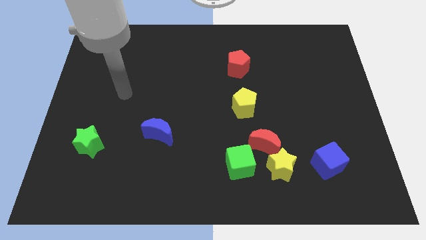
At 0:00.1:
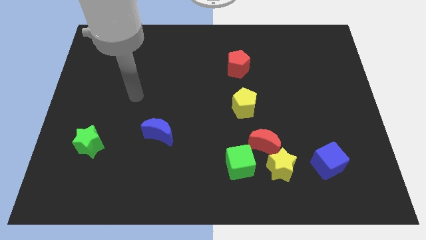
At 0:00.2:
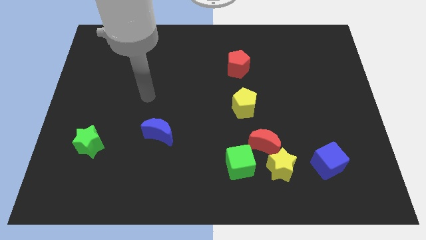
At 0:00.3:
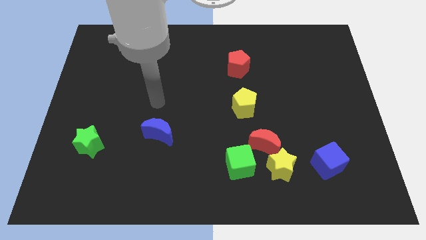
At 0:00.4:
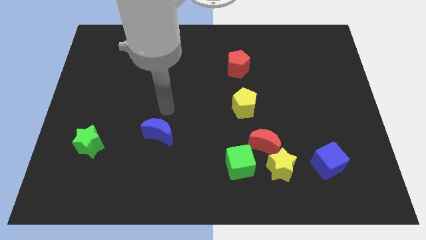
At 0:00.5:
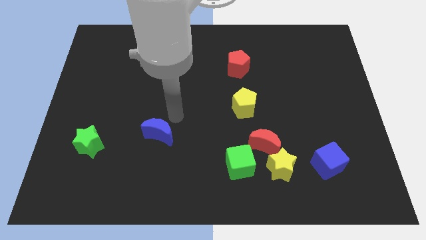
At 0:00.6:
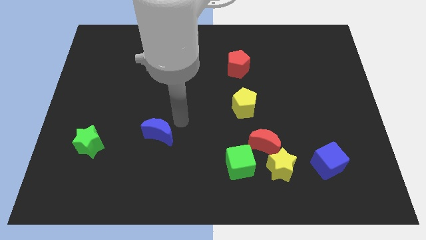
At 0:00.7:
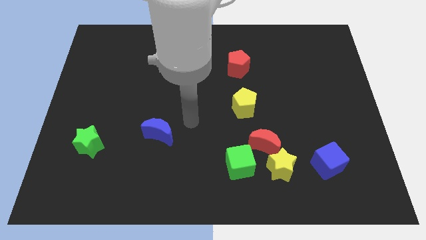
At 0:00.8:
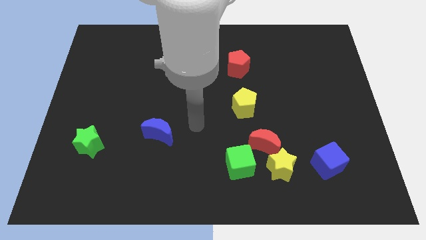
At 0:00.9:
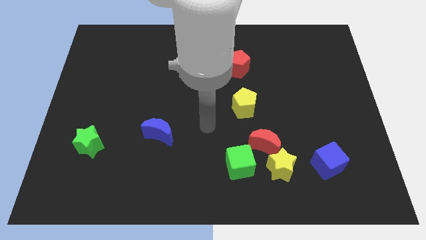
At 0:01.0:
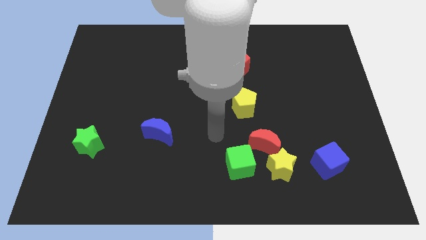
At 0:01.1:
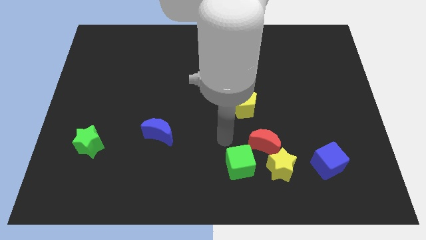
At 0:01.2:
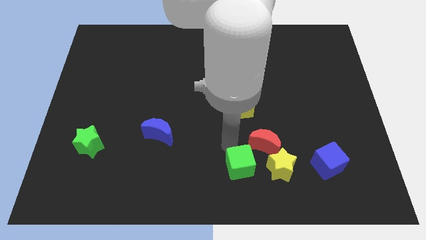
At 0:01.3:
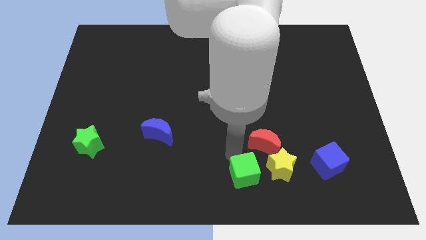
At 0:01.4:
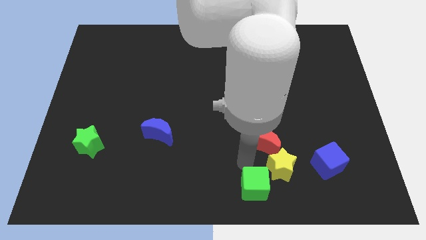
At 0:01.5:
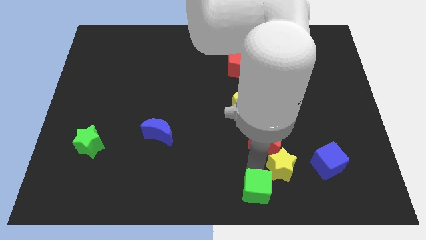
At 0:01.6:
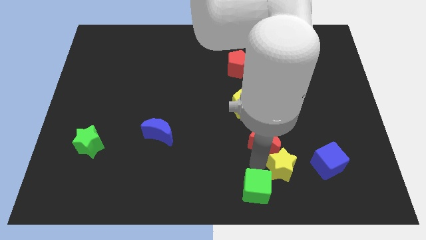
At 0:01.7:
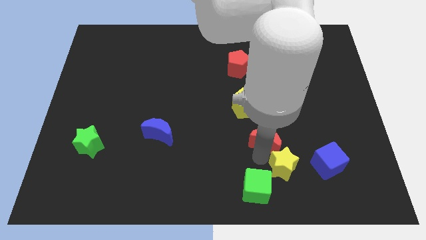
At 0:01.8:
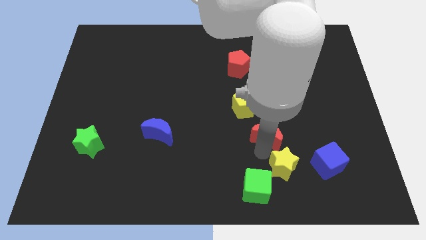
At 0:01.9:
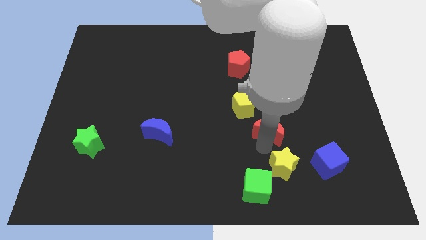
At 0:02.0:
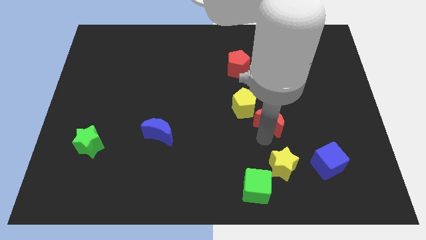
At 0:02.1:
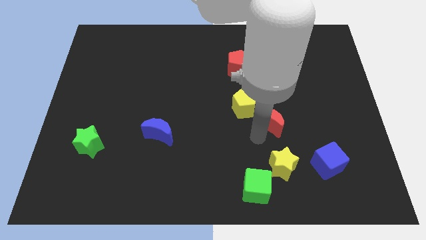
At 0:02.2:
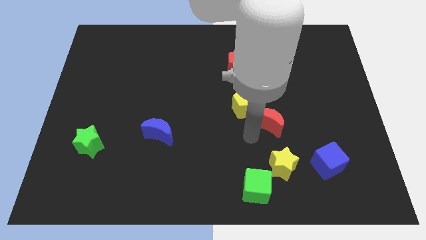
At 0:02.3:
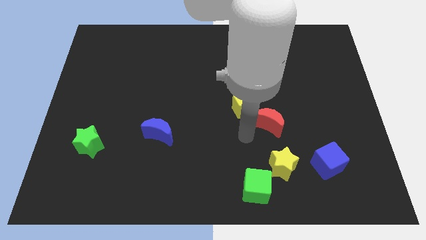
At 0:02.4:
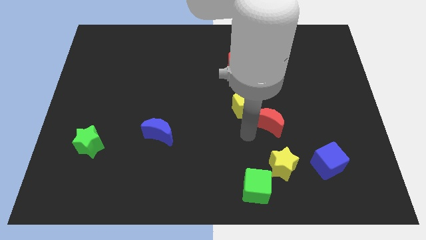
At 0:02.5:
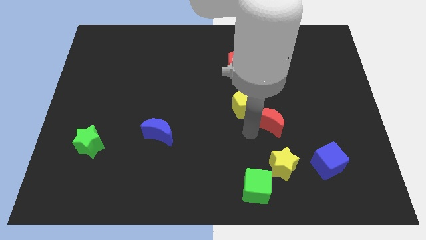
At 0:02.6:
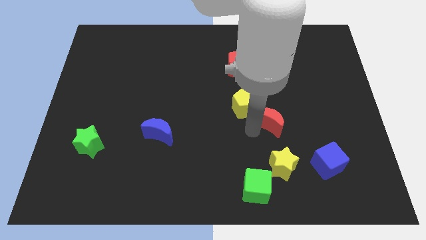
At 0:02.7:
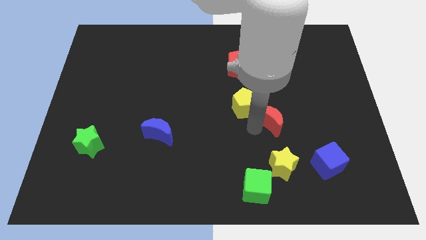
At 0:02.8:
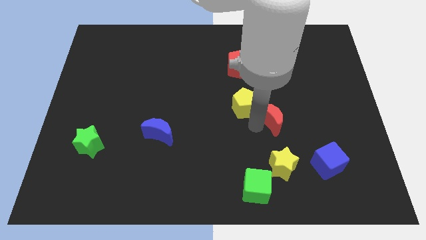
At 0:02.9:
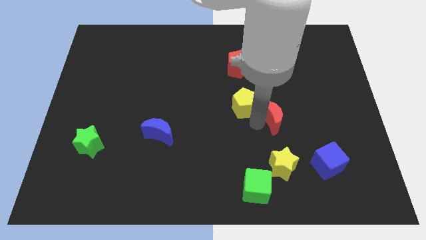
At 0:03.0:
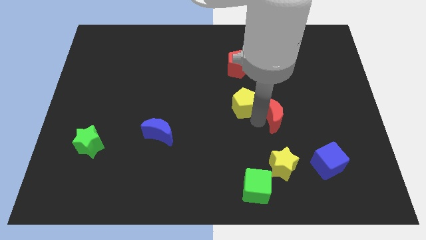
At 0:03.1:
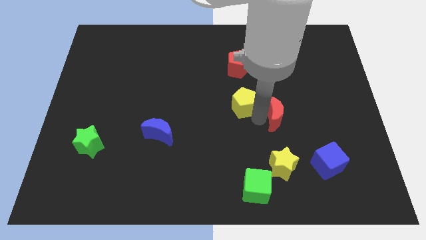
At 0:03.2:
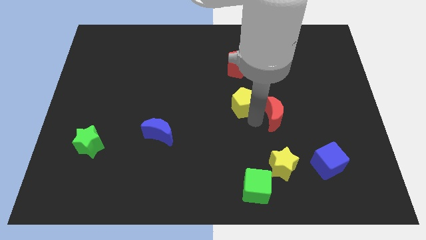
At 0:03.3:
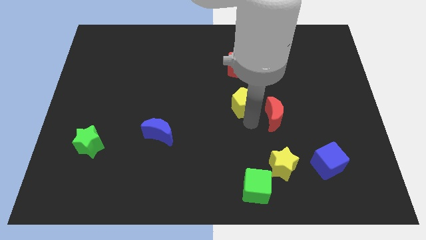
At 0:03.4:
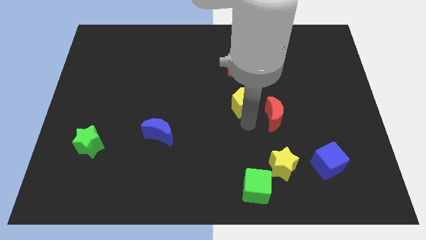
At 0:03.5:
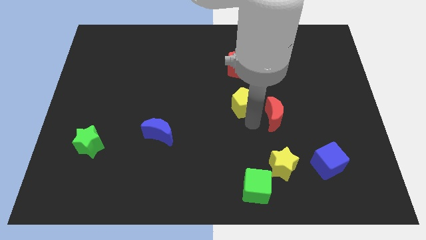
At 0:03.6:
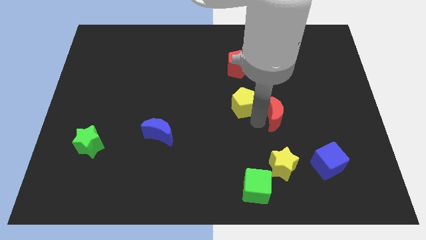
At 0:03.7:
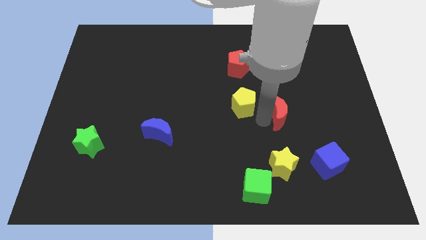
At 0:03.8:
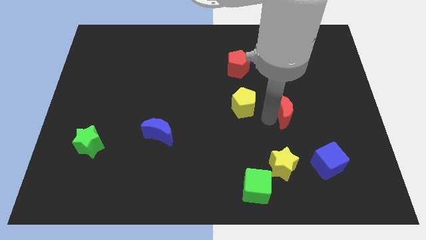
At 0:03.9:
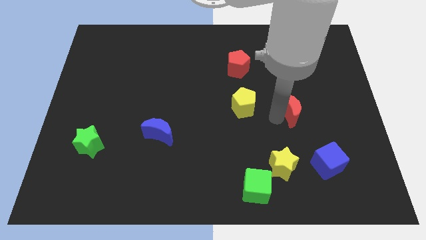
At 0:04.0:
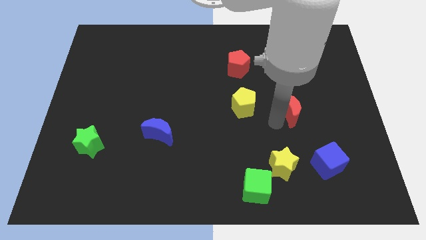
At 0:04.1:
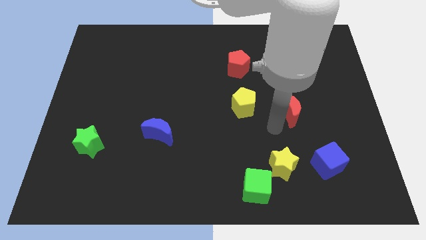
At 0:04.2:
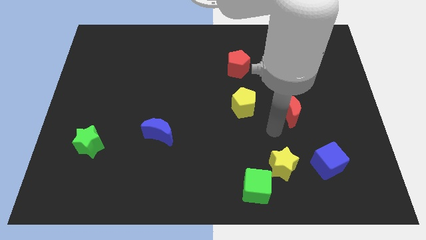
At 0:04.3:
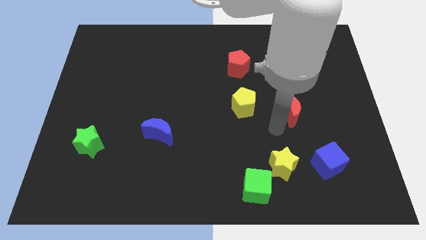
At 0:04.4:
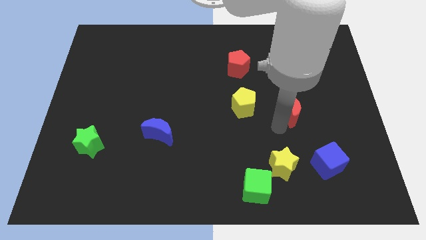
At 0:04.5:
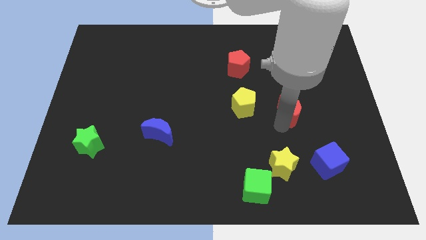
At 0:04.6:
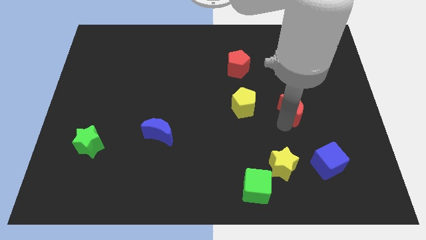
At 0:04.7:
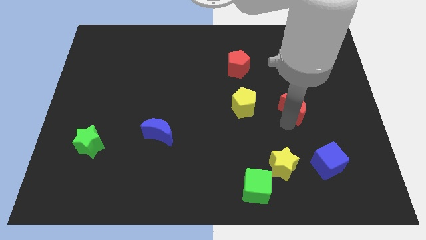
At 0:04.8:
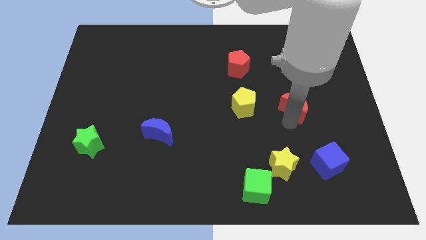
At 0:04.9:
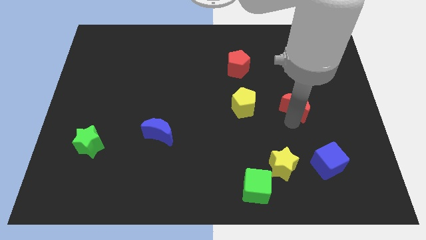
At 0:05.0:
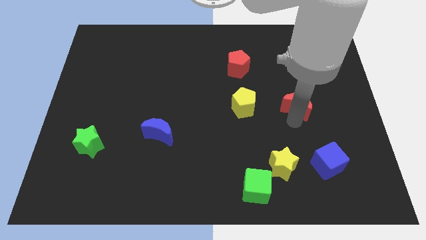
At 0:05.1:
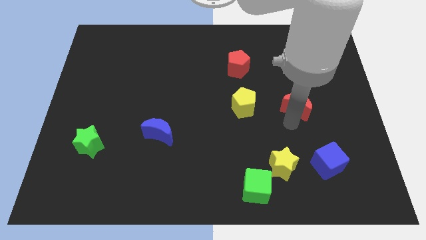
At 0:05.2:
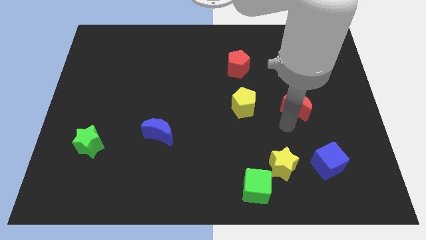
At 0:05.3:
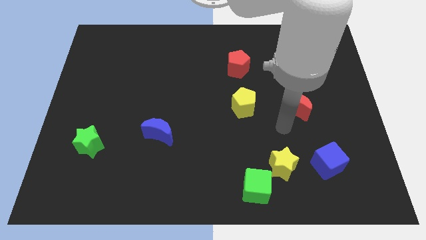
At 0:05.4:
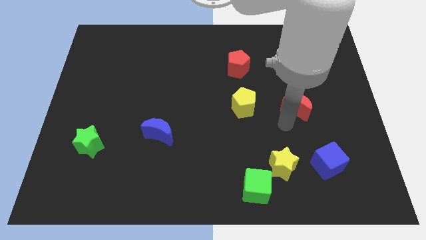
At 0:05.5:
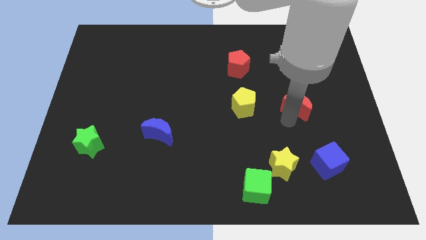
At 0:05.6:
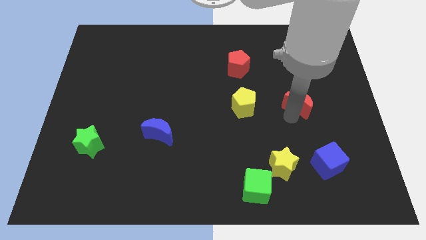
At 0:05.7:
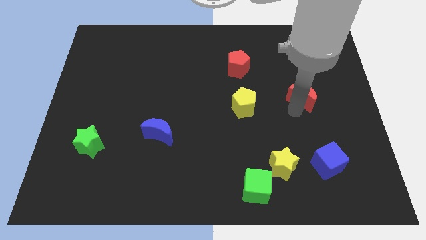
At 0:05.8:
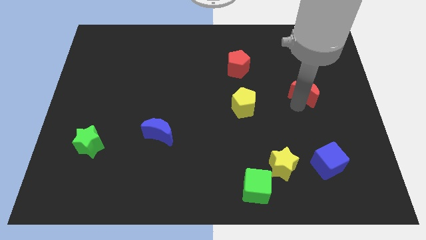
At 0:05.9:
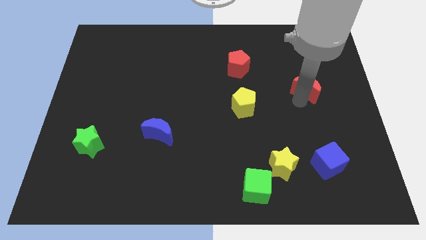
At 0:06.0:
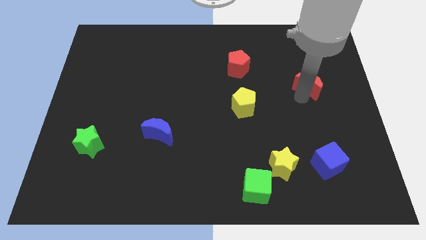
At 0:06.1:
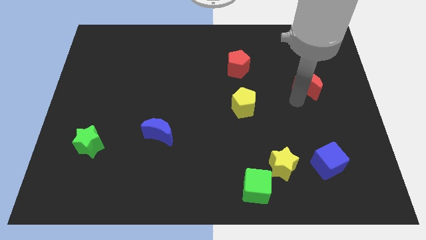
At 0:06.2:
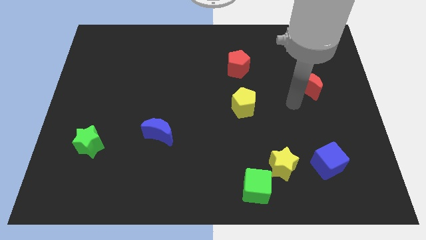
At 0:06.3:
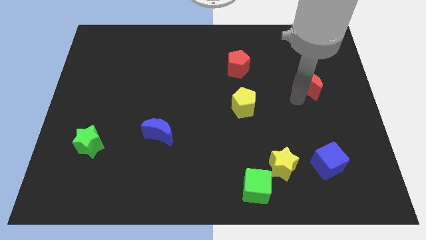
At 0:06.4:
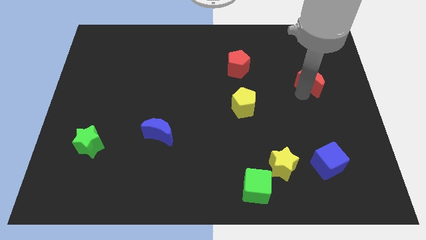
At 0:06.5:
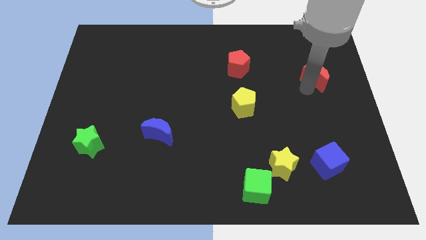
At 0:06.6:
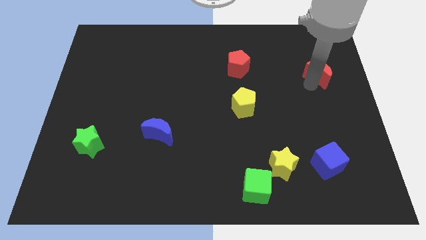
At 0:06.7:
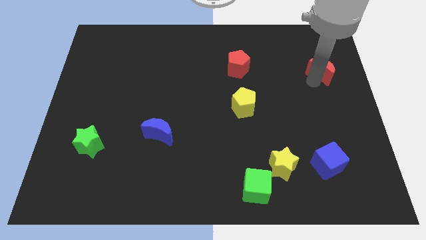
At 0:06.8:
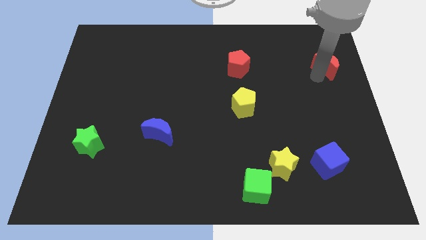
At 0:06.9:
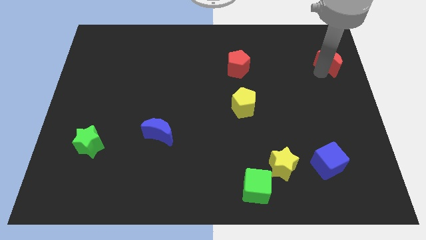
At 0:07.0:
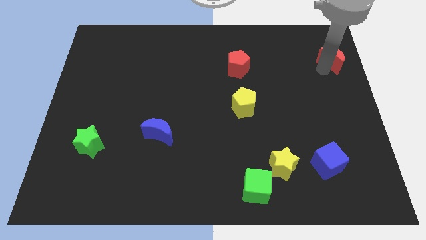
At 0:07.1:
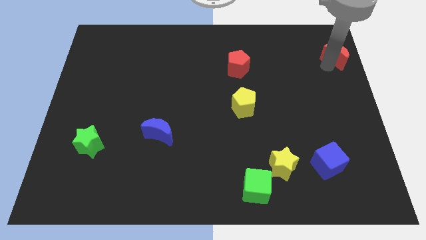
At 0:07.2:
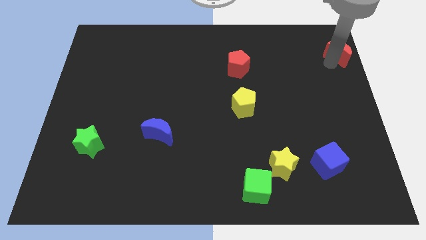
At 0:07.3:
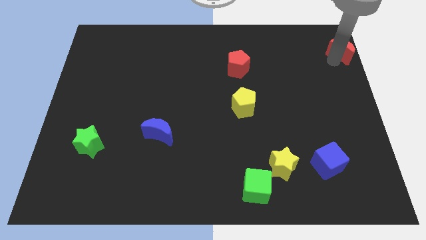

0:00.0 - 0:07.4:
slide the red moon to the top right corner
